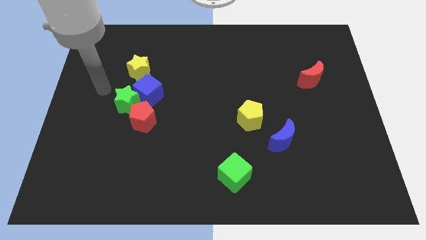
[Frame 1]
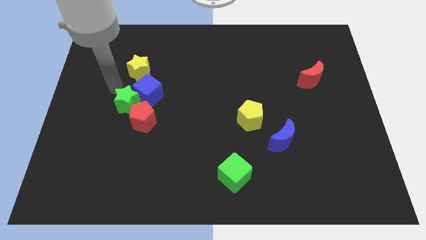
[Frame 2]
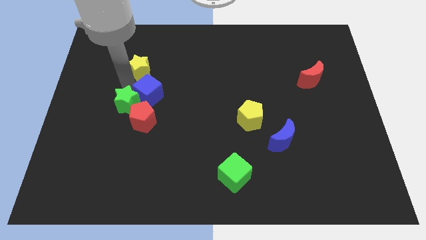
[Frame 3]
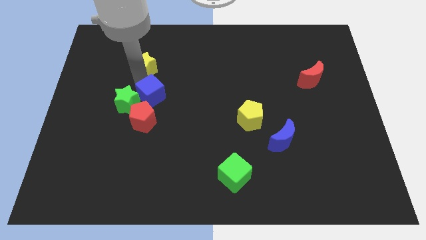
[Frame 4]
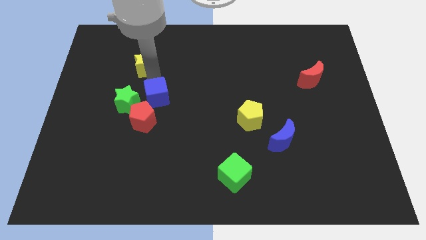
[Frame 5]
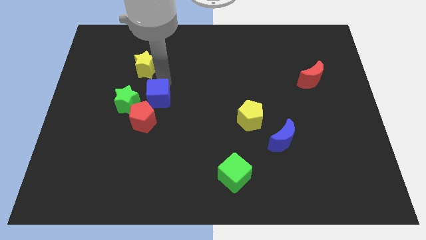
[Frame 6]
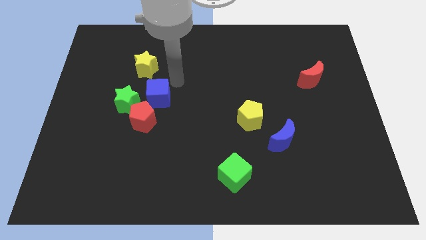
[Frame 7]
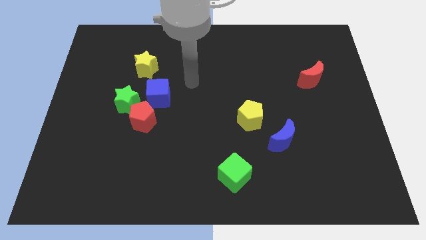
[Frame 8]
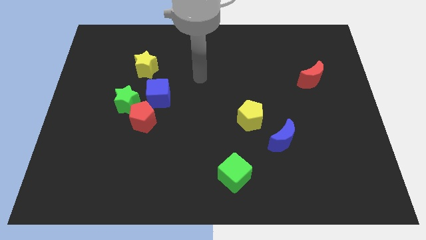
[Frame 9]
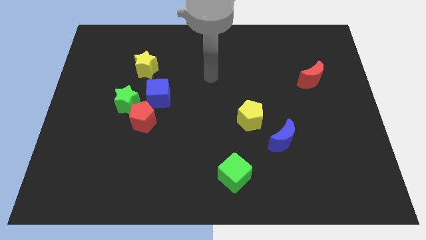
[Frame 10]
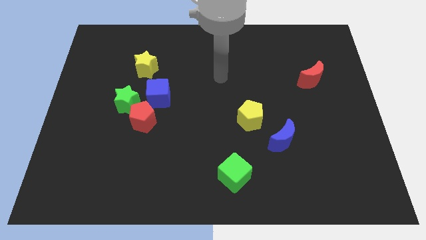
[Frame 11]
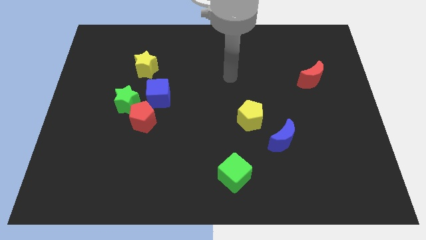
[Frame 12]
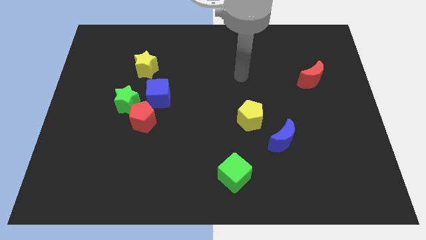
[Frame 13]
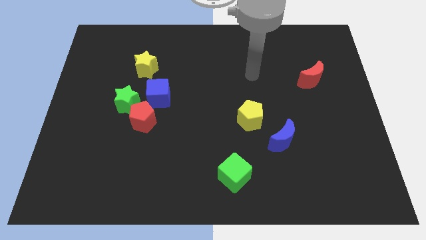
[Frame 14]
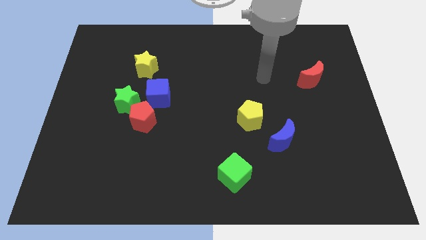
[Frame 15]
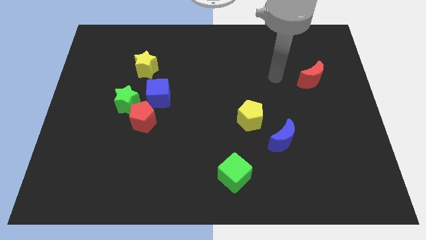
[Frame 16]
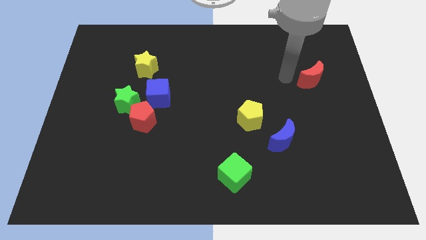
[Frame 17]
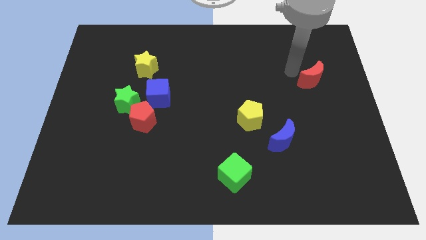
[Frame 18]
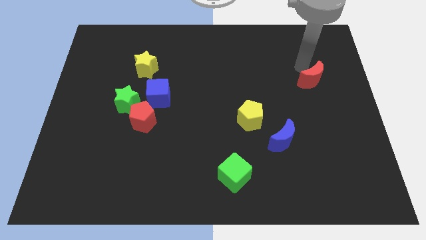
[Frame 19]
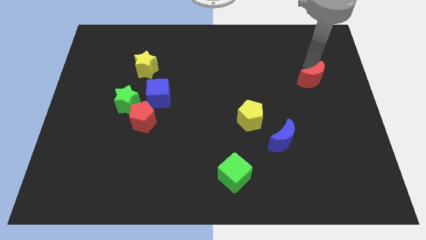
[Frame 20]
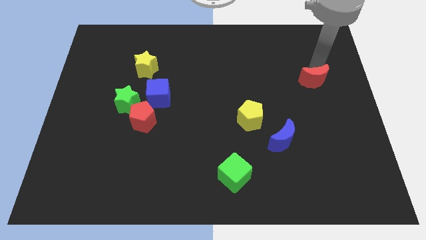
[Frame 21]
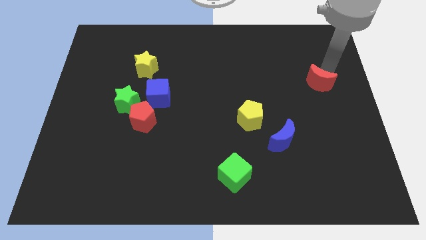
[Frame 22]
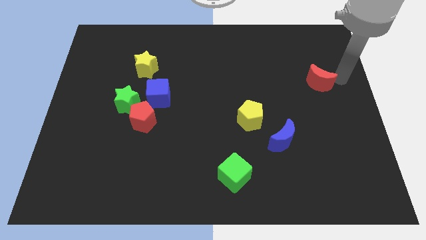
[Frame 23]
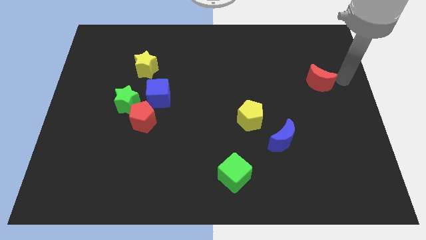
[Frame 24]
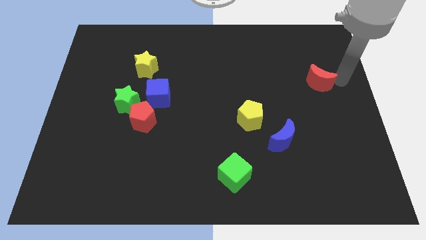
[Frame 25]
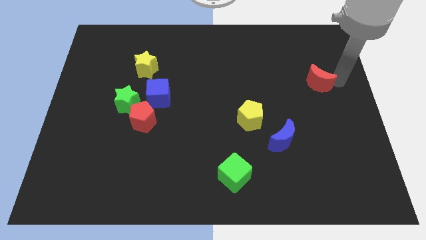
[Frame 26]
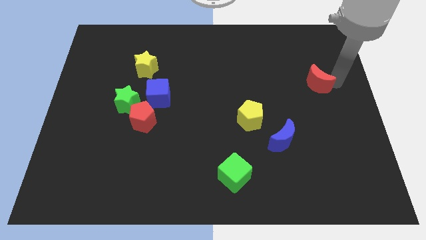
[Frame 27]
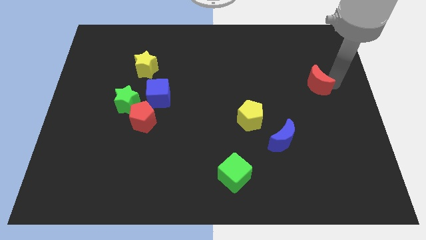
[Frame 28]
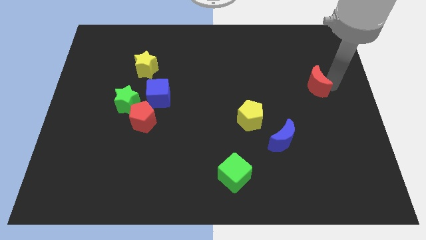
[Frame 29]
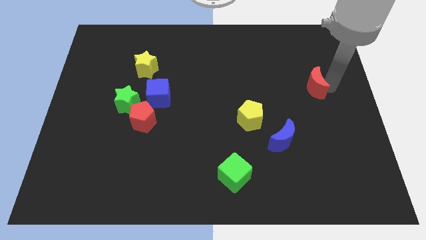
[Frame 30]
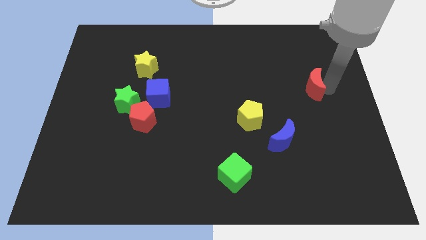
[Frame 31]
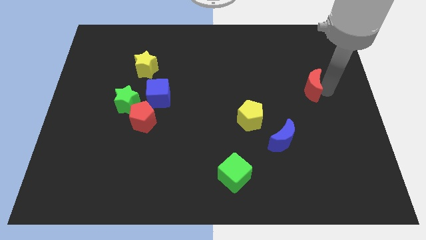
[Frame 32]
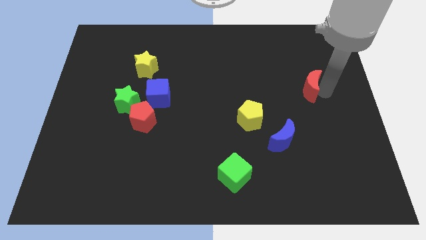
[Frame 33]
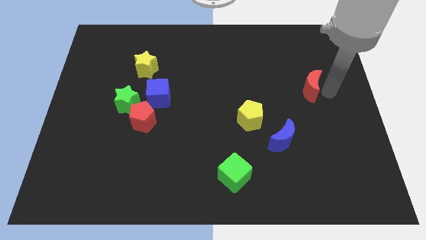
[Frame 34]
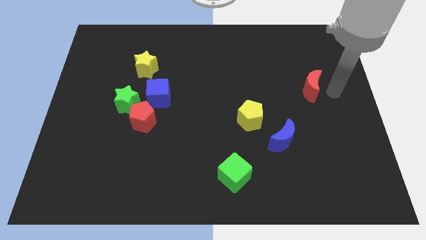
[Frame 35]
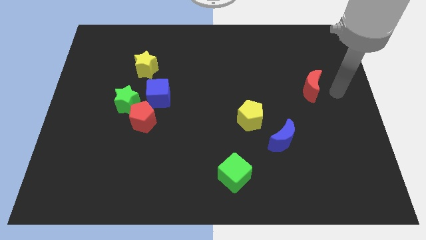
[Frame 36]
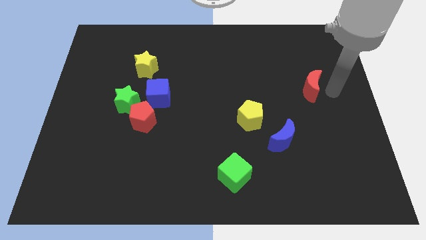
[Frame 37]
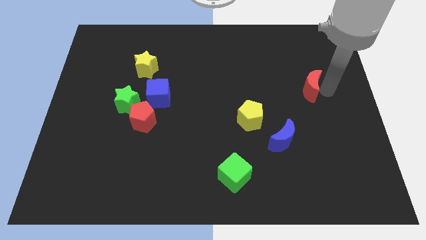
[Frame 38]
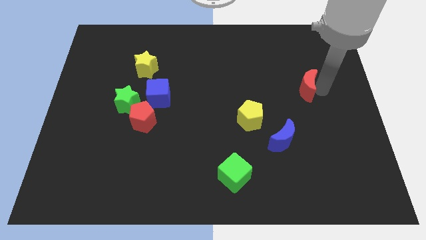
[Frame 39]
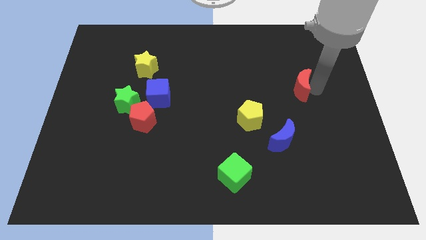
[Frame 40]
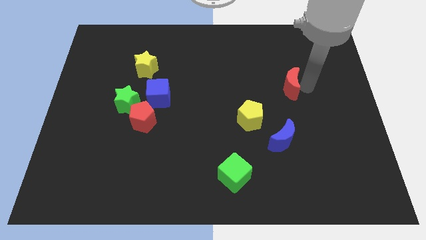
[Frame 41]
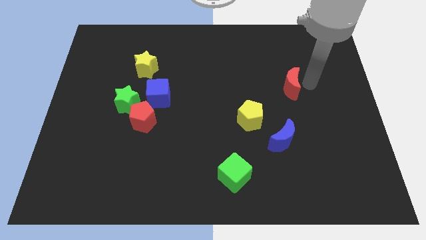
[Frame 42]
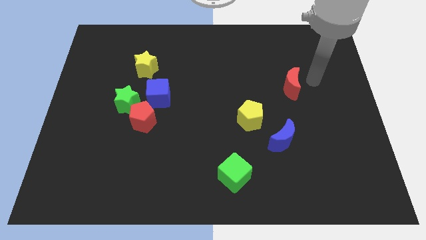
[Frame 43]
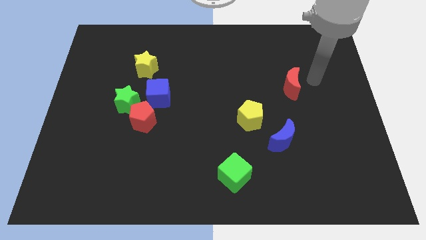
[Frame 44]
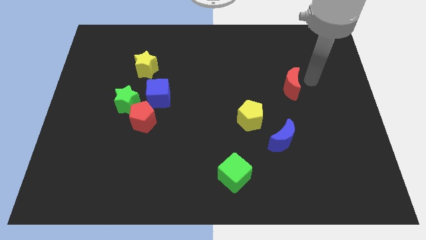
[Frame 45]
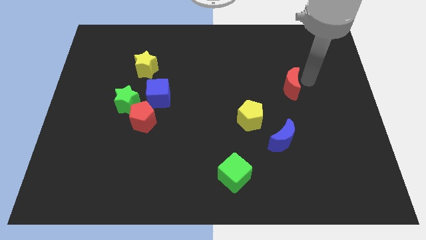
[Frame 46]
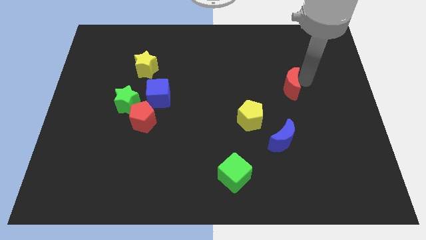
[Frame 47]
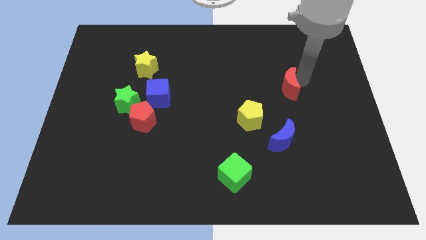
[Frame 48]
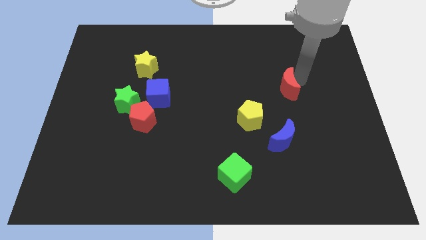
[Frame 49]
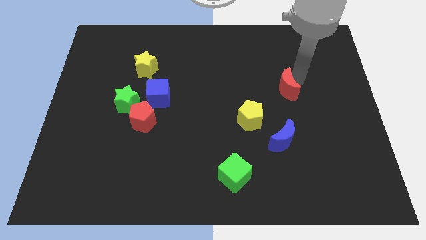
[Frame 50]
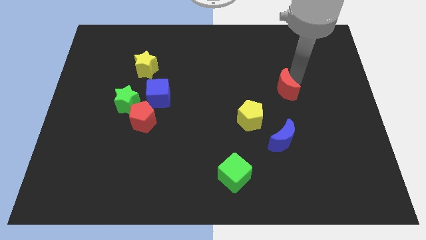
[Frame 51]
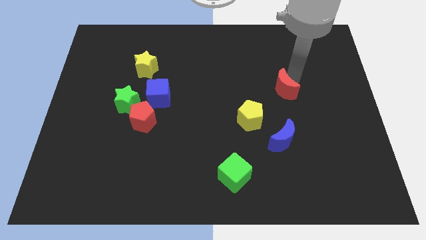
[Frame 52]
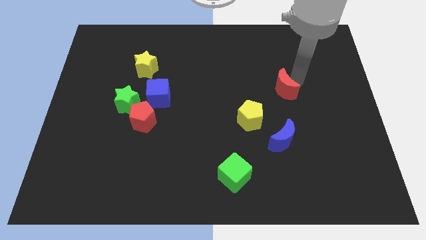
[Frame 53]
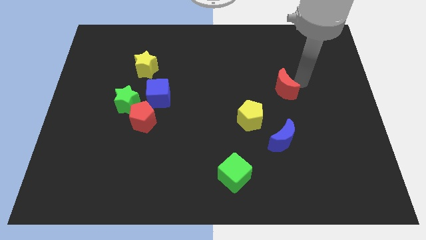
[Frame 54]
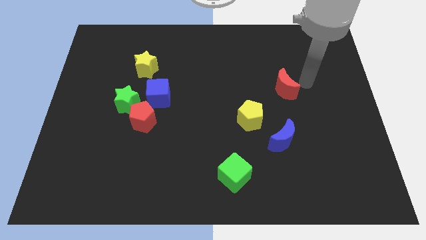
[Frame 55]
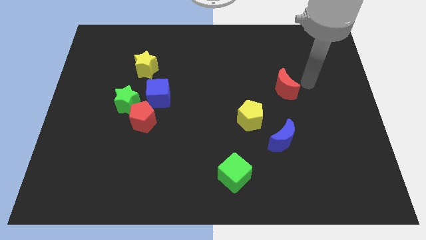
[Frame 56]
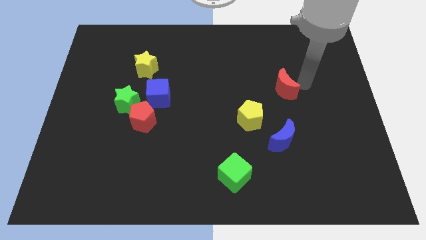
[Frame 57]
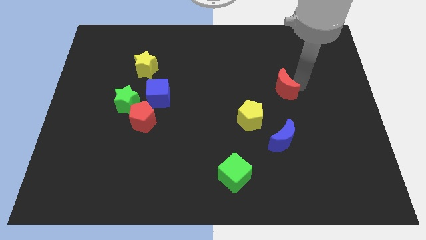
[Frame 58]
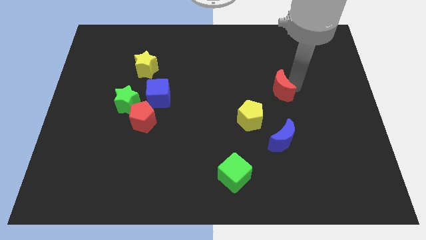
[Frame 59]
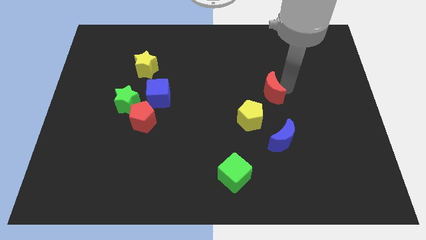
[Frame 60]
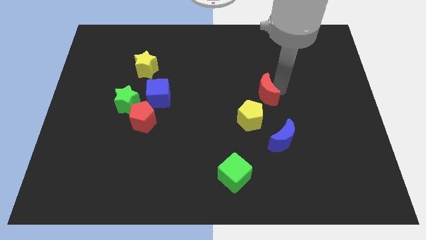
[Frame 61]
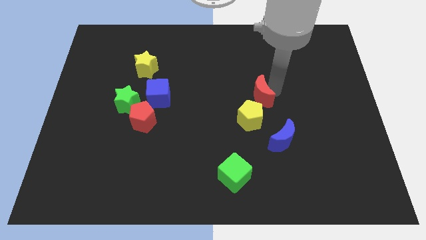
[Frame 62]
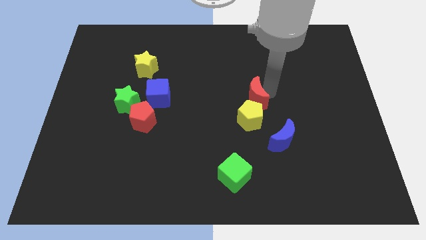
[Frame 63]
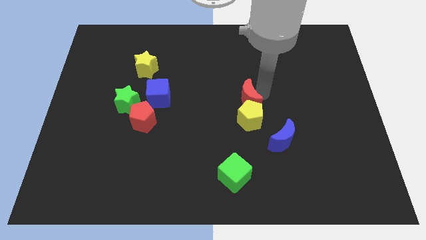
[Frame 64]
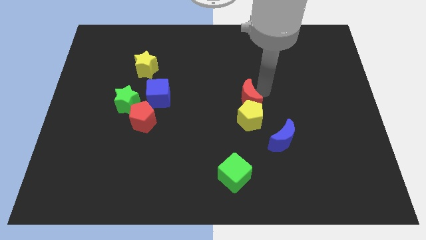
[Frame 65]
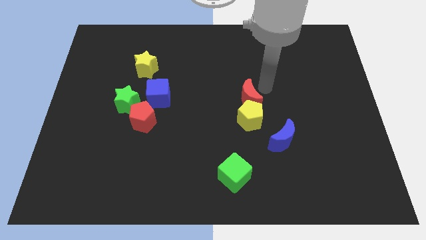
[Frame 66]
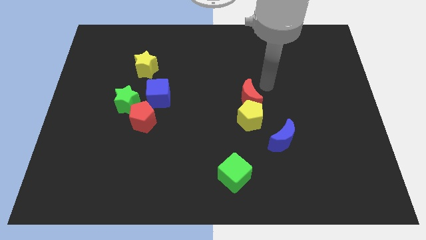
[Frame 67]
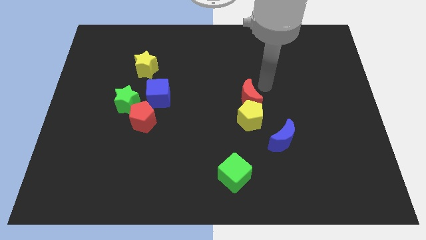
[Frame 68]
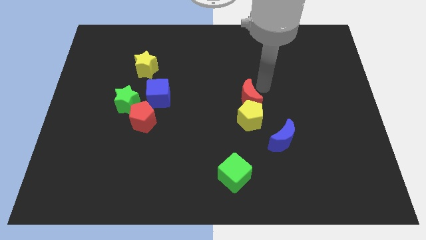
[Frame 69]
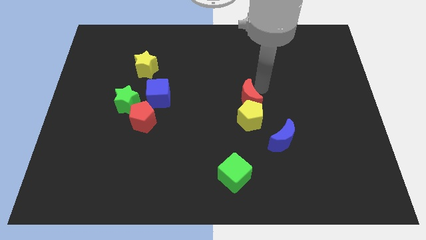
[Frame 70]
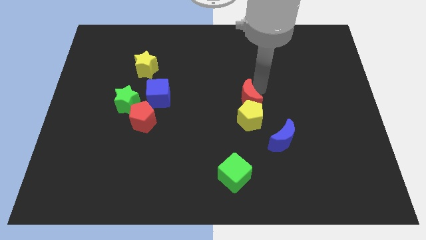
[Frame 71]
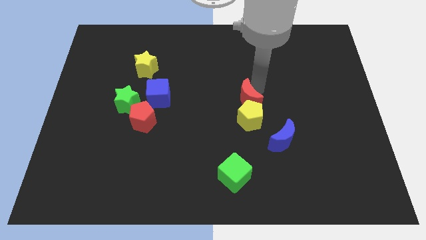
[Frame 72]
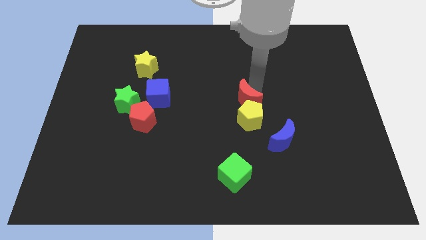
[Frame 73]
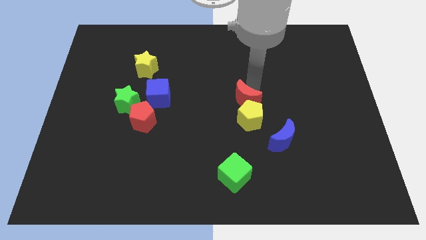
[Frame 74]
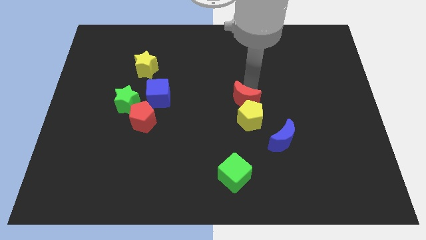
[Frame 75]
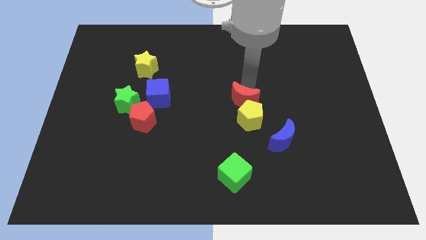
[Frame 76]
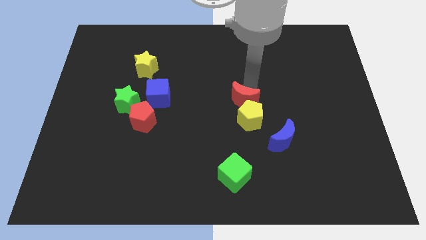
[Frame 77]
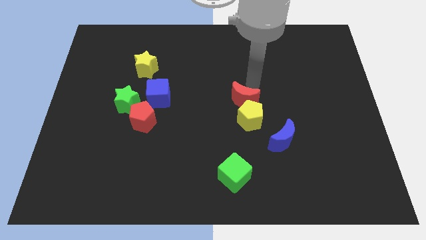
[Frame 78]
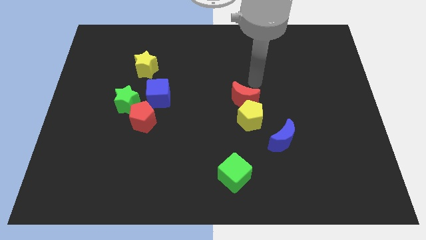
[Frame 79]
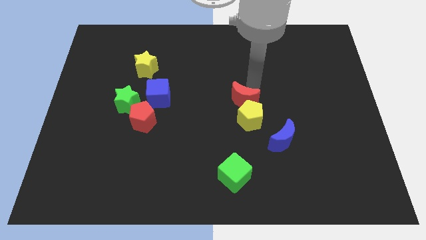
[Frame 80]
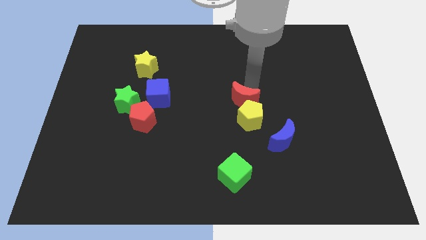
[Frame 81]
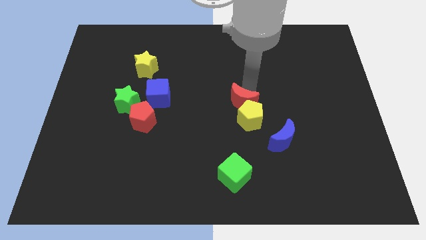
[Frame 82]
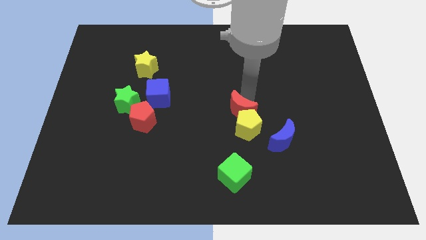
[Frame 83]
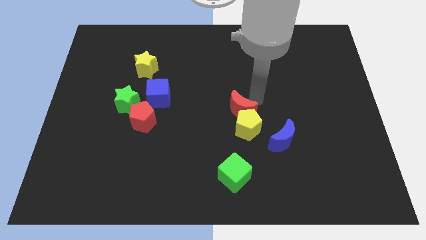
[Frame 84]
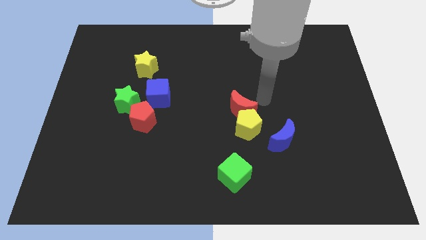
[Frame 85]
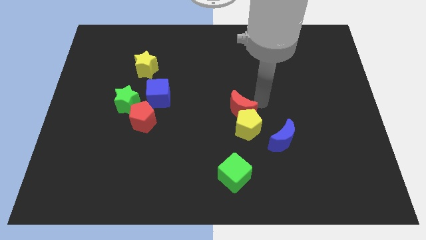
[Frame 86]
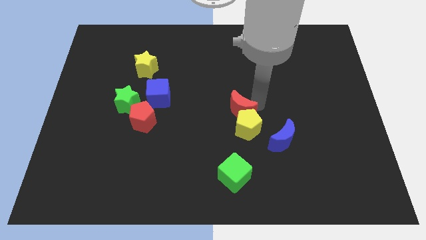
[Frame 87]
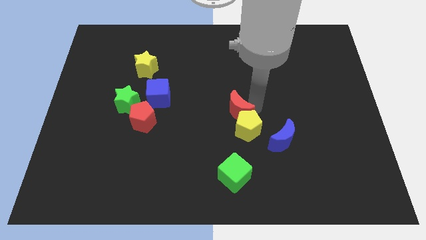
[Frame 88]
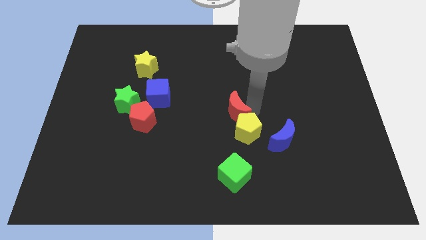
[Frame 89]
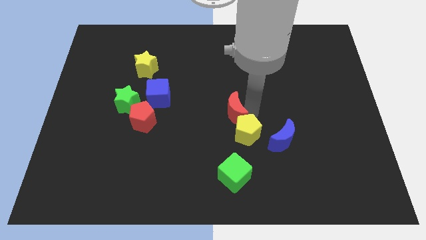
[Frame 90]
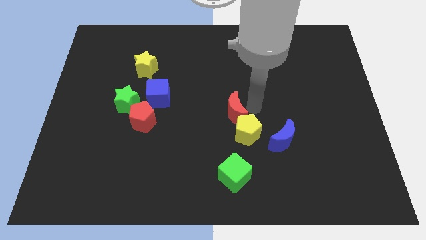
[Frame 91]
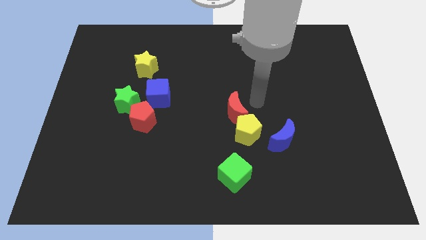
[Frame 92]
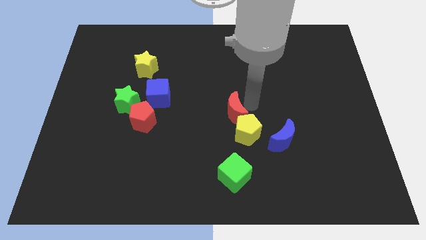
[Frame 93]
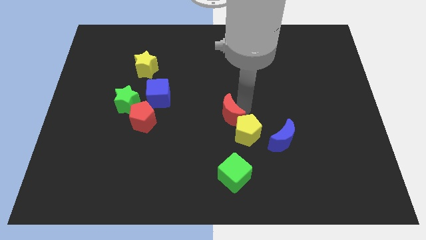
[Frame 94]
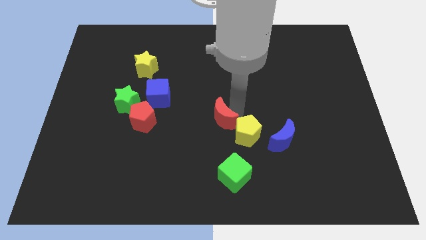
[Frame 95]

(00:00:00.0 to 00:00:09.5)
move the red moon left of the yellow pentagon
